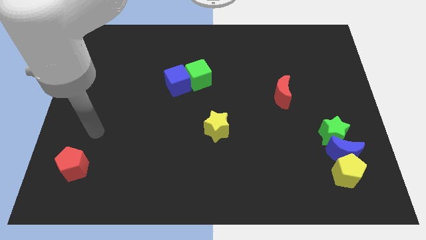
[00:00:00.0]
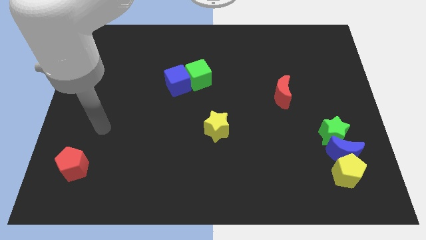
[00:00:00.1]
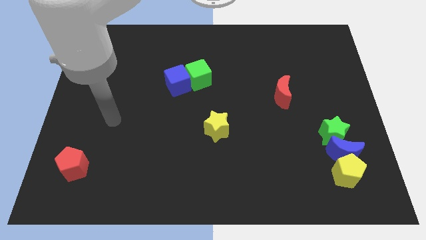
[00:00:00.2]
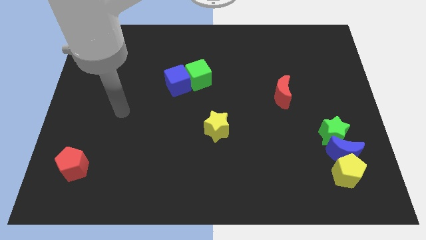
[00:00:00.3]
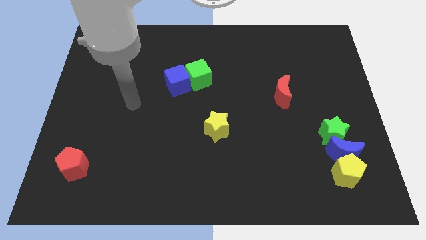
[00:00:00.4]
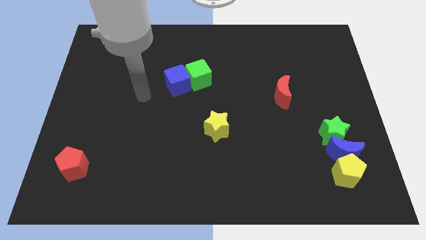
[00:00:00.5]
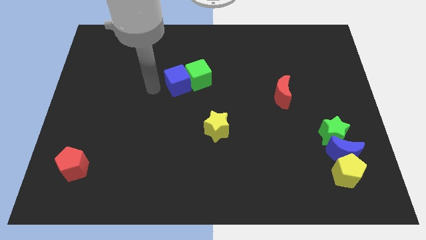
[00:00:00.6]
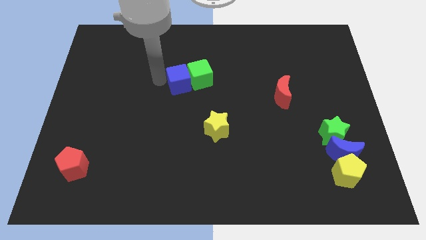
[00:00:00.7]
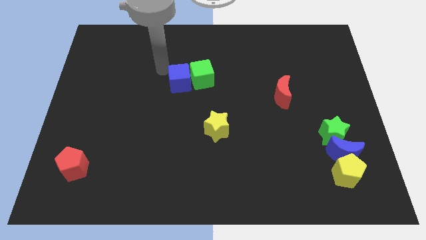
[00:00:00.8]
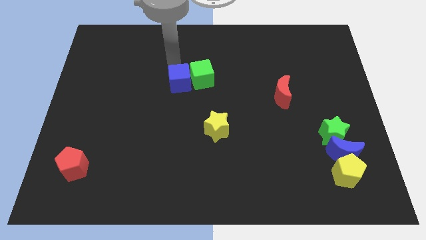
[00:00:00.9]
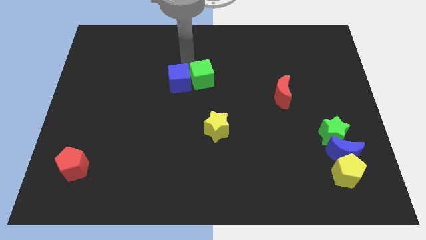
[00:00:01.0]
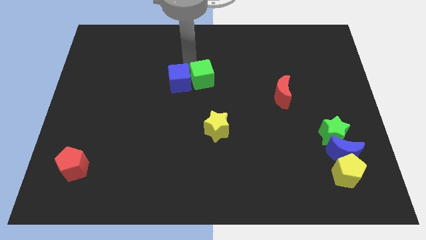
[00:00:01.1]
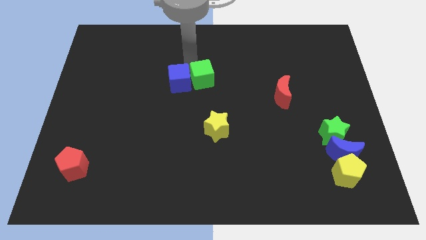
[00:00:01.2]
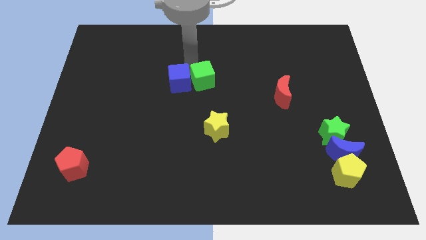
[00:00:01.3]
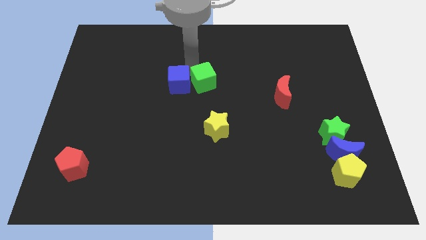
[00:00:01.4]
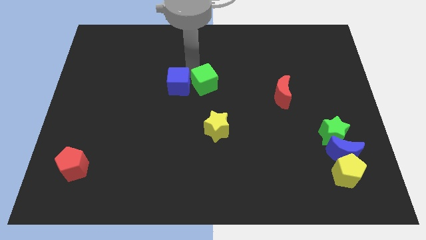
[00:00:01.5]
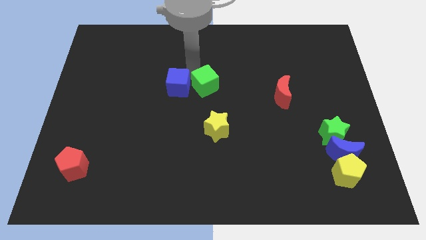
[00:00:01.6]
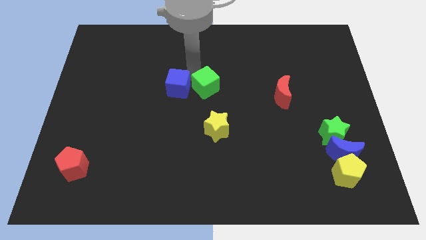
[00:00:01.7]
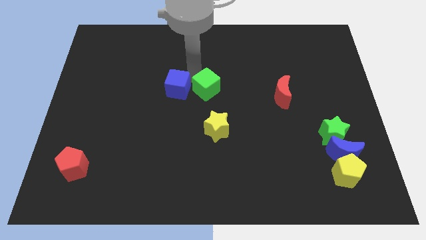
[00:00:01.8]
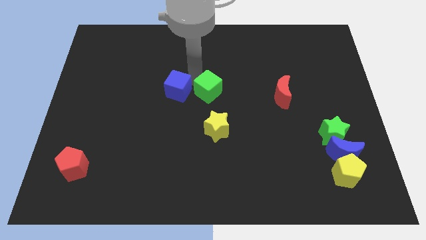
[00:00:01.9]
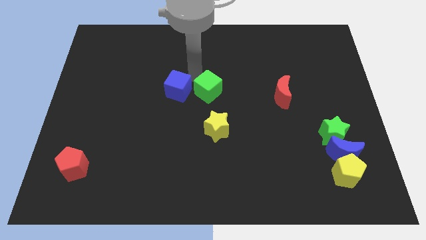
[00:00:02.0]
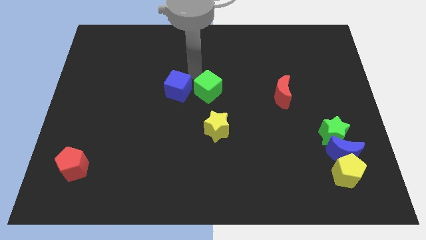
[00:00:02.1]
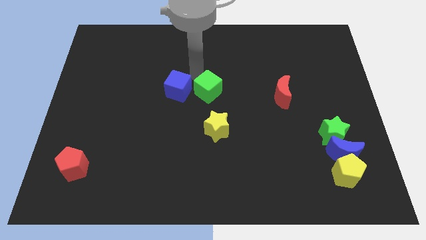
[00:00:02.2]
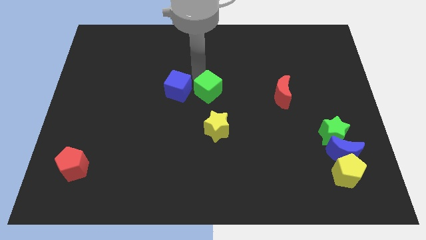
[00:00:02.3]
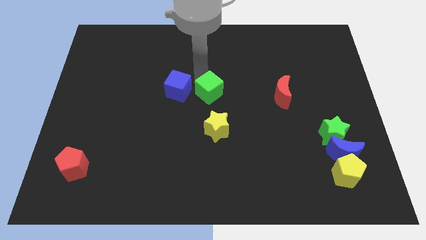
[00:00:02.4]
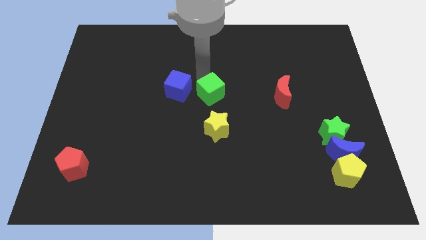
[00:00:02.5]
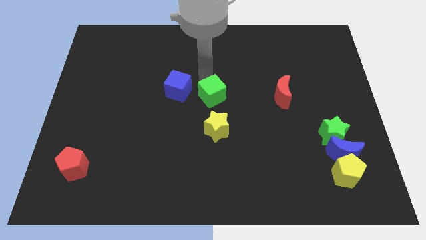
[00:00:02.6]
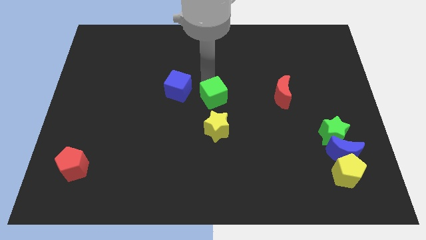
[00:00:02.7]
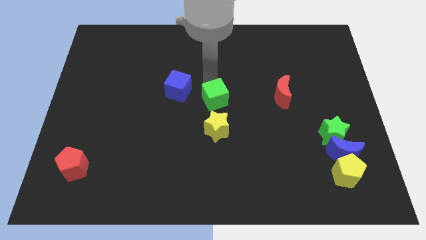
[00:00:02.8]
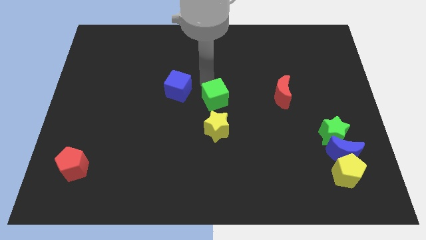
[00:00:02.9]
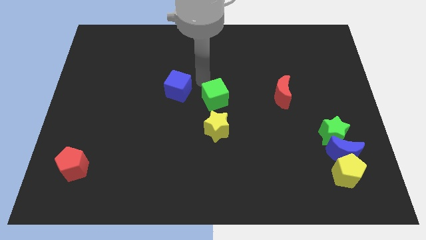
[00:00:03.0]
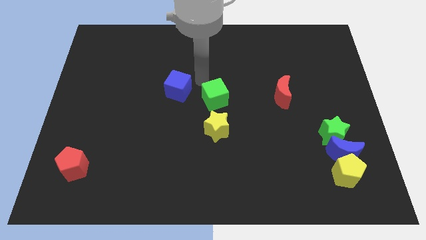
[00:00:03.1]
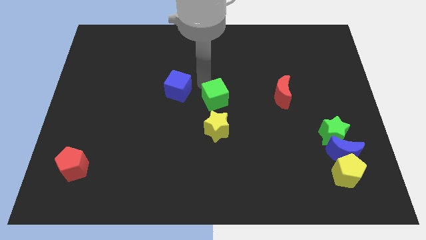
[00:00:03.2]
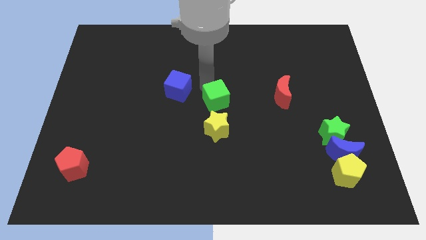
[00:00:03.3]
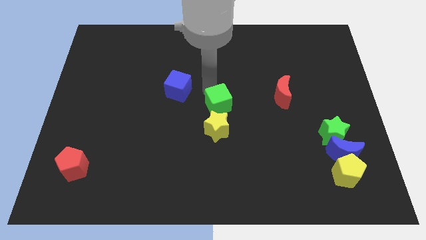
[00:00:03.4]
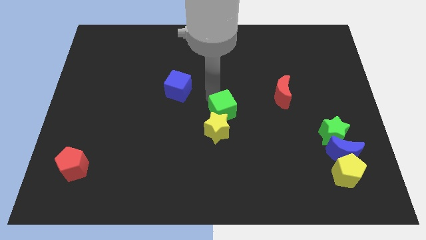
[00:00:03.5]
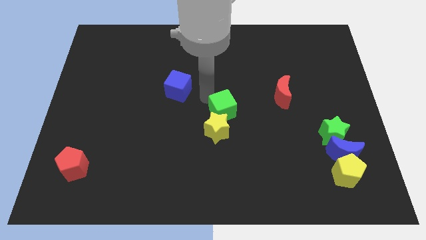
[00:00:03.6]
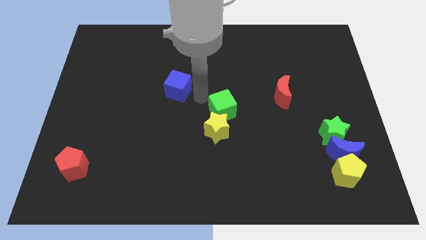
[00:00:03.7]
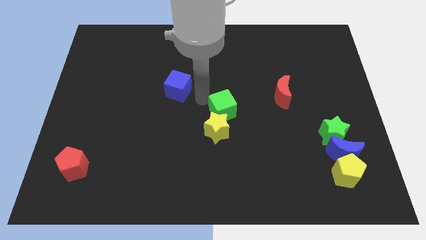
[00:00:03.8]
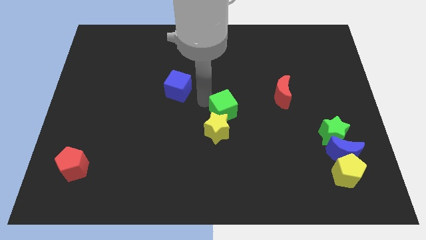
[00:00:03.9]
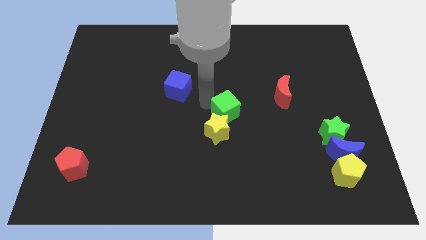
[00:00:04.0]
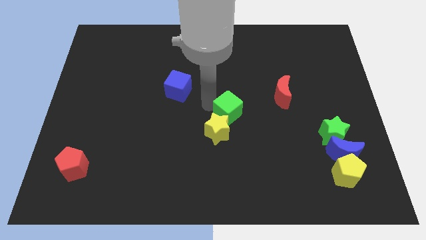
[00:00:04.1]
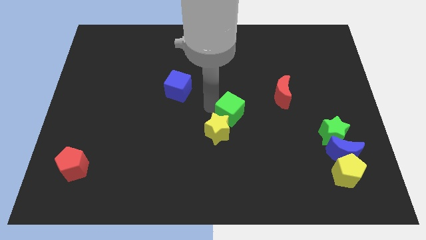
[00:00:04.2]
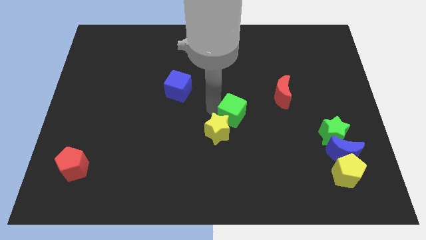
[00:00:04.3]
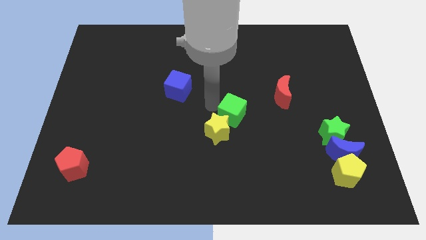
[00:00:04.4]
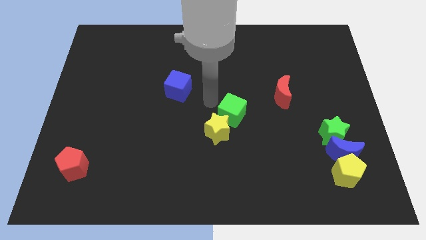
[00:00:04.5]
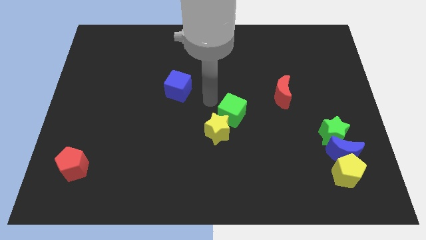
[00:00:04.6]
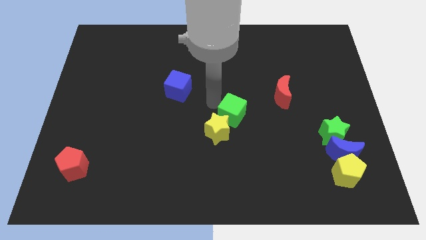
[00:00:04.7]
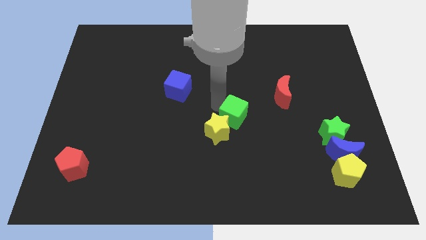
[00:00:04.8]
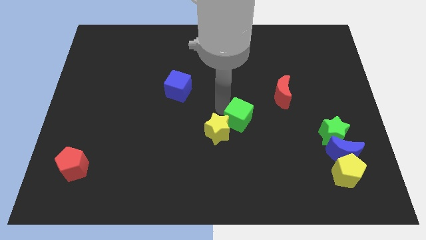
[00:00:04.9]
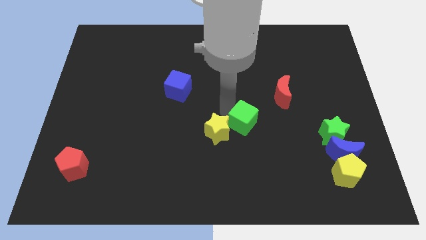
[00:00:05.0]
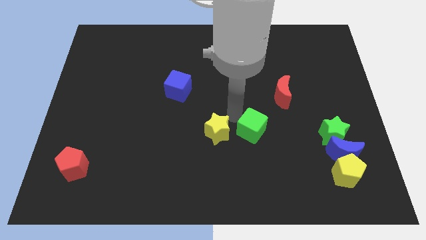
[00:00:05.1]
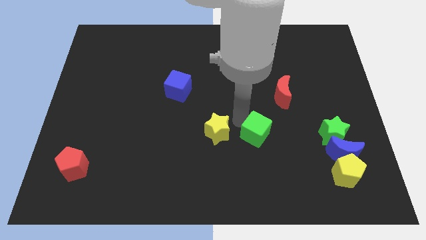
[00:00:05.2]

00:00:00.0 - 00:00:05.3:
slide the green cube downwards and right

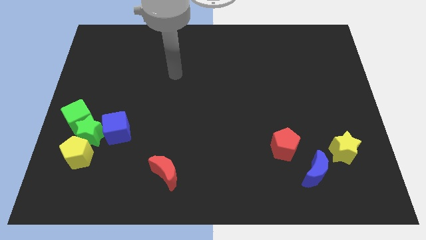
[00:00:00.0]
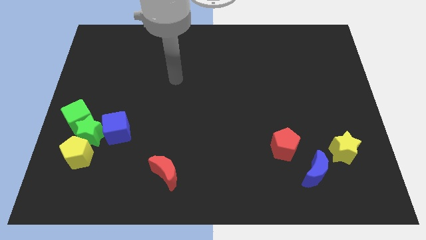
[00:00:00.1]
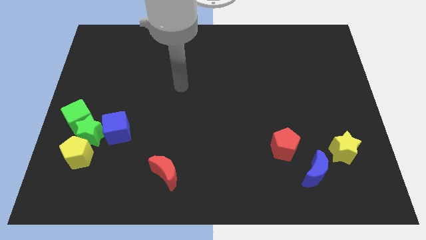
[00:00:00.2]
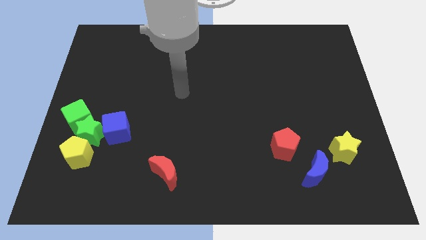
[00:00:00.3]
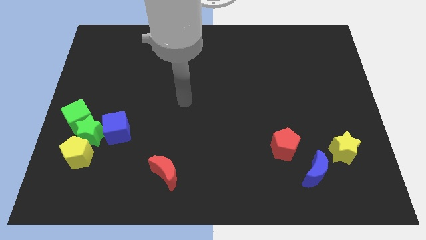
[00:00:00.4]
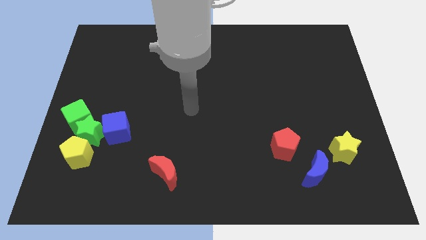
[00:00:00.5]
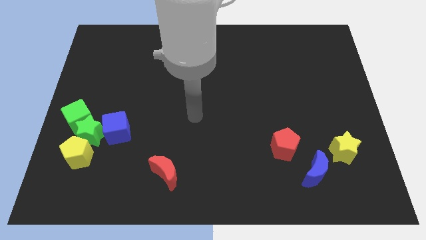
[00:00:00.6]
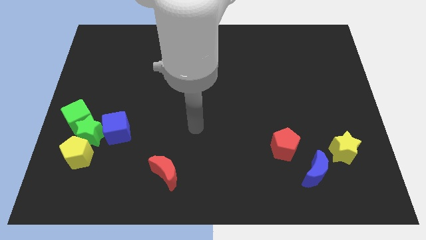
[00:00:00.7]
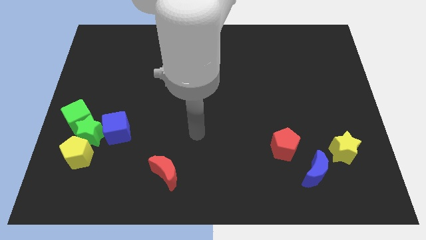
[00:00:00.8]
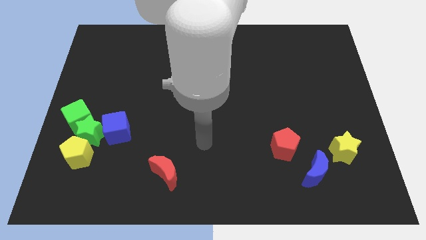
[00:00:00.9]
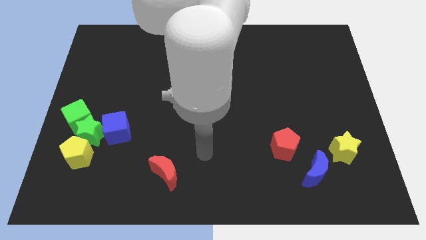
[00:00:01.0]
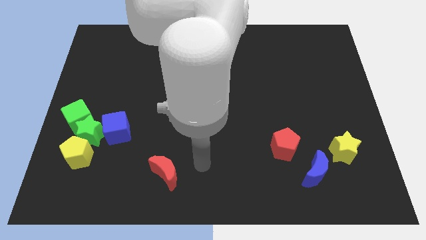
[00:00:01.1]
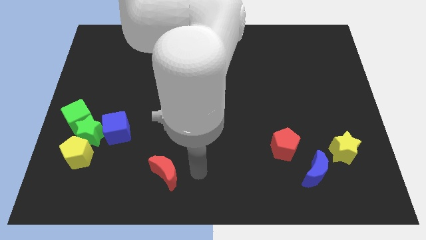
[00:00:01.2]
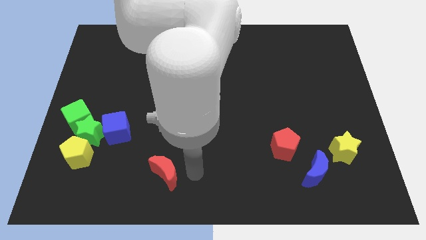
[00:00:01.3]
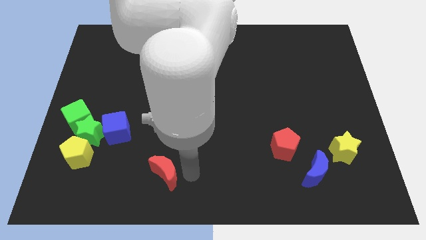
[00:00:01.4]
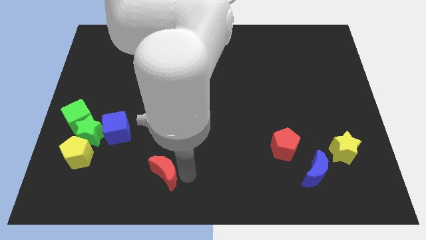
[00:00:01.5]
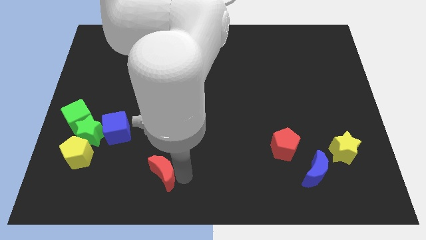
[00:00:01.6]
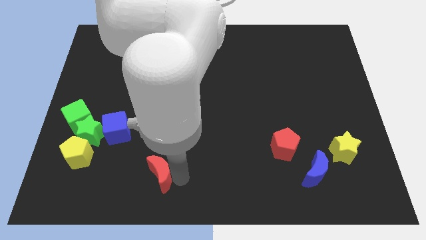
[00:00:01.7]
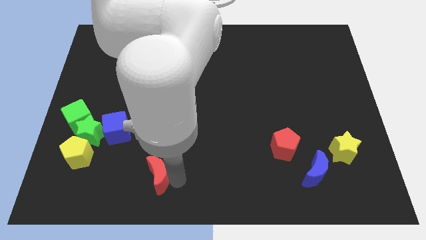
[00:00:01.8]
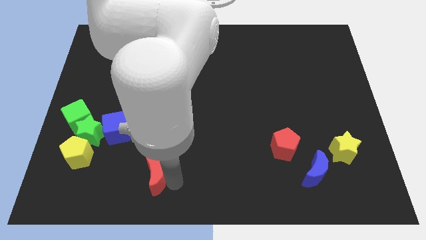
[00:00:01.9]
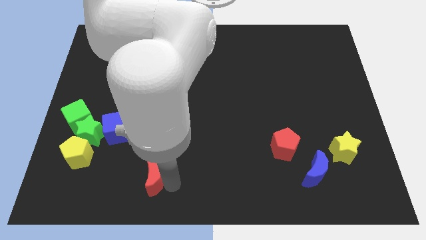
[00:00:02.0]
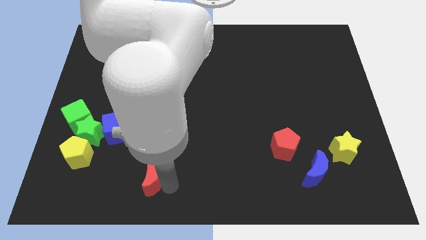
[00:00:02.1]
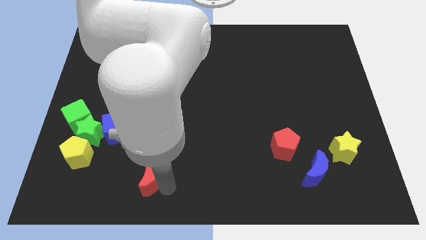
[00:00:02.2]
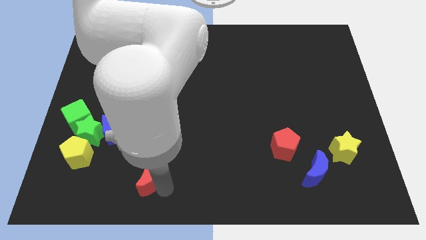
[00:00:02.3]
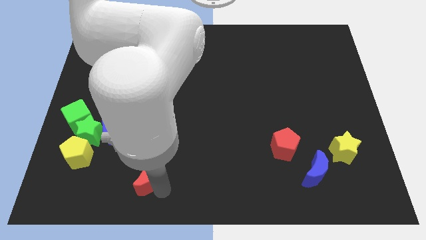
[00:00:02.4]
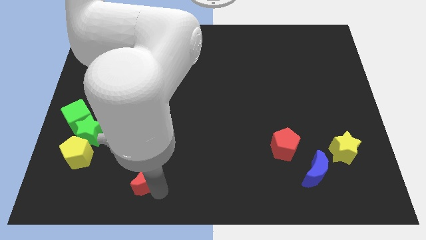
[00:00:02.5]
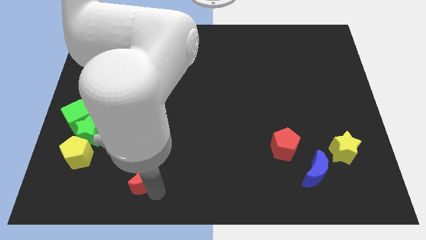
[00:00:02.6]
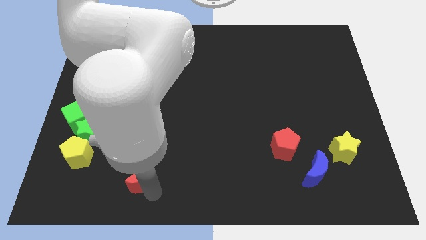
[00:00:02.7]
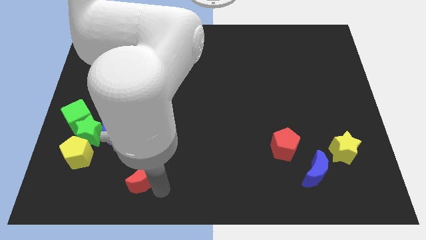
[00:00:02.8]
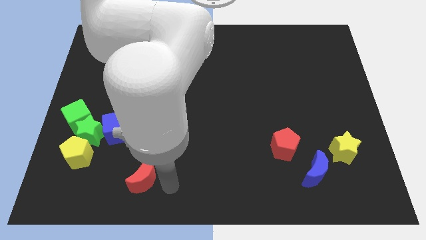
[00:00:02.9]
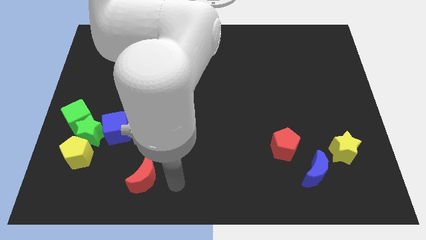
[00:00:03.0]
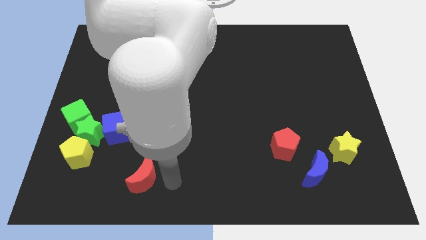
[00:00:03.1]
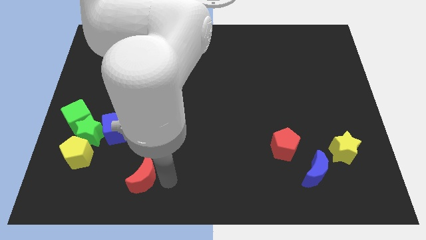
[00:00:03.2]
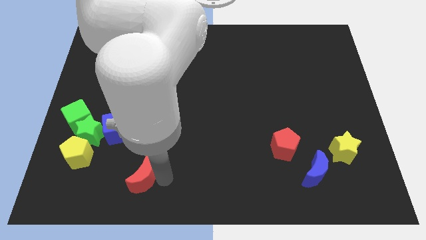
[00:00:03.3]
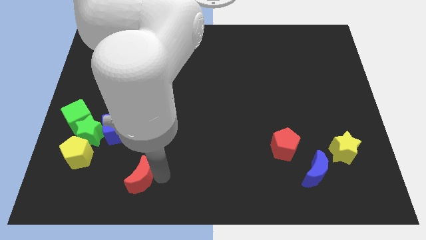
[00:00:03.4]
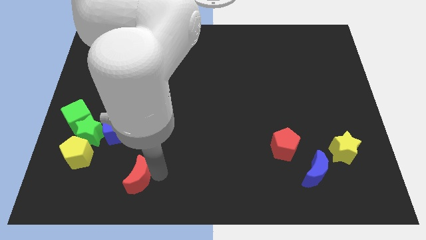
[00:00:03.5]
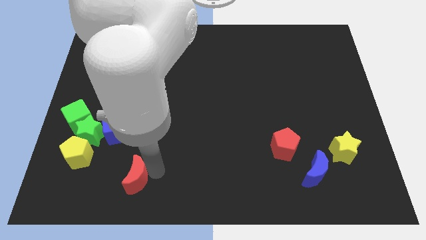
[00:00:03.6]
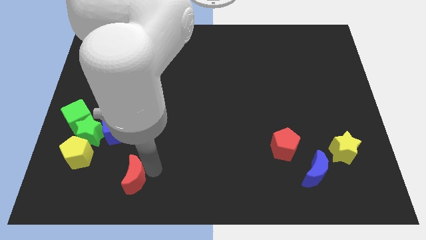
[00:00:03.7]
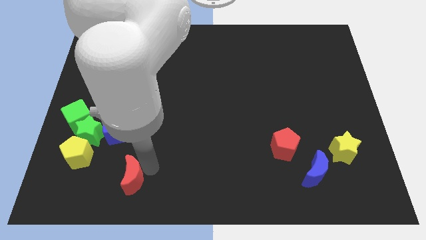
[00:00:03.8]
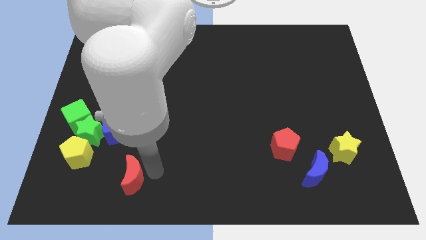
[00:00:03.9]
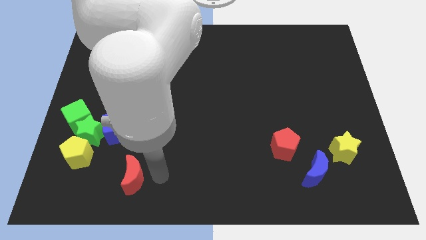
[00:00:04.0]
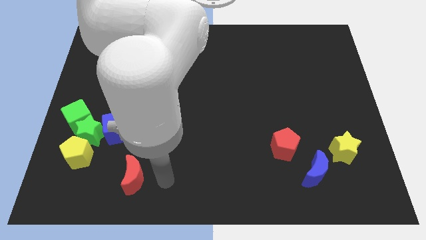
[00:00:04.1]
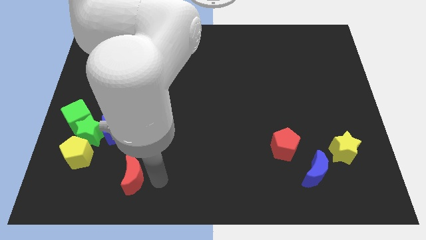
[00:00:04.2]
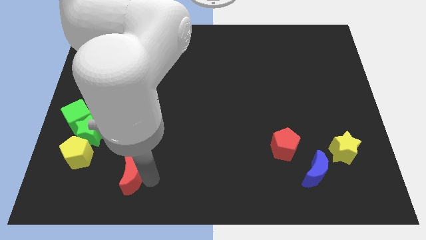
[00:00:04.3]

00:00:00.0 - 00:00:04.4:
slightly push the red moon to the left
